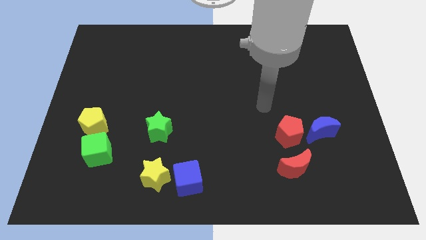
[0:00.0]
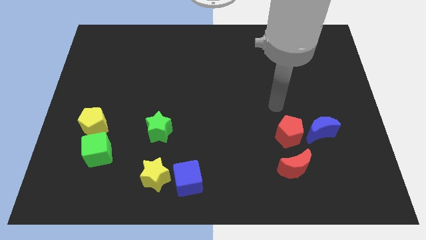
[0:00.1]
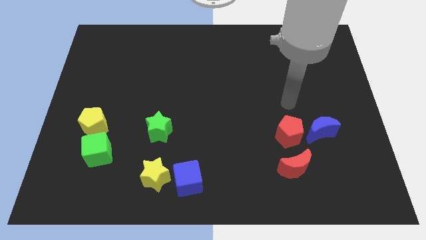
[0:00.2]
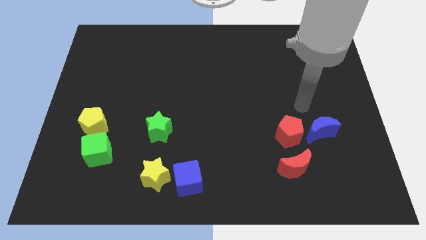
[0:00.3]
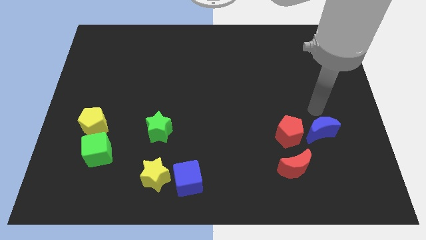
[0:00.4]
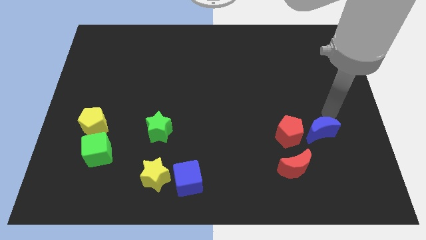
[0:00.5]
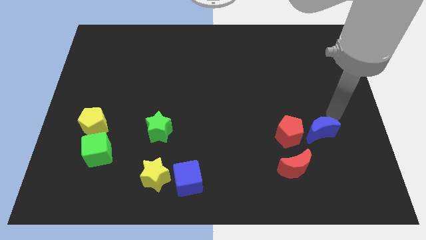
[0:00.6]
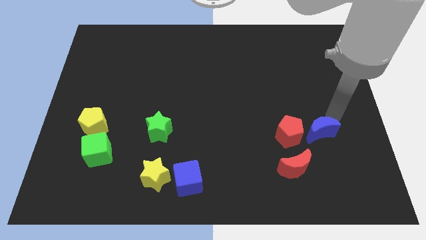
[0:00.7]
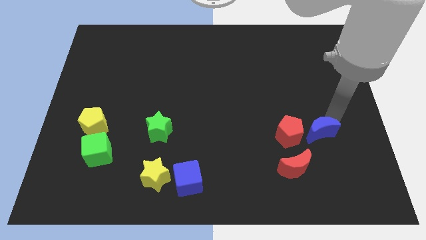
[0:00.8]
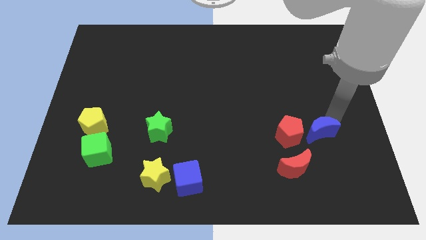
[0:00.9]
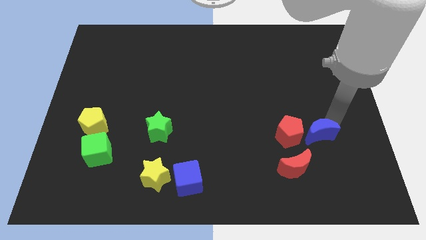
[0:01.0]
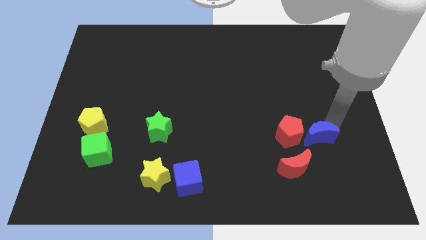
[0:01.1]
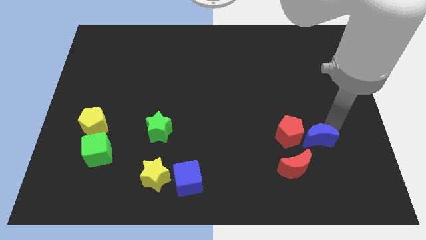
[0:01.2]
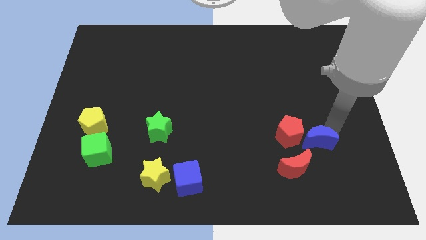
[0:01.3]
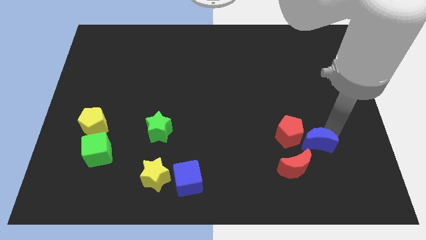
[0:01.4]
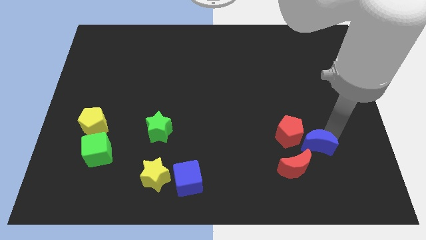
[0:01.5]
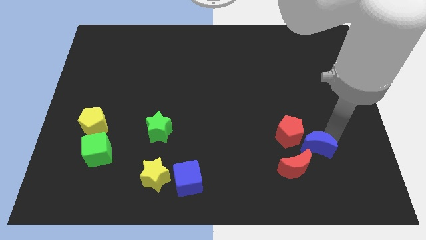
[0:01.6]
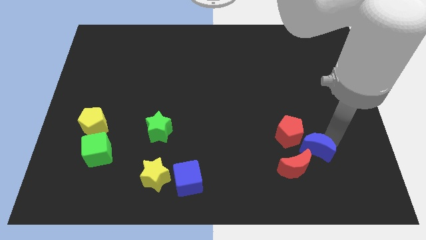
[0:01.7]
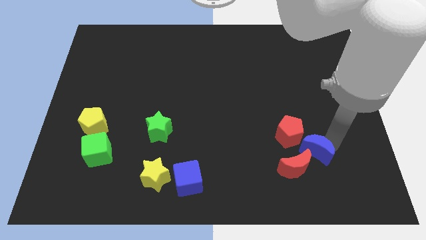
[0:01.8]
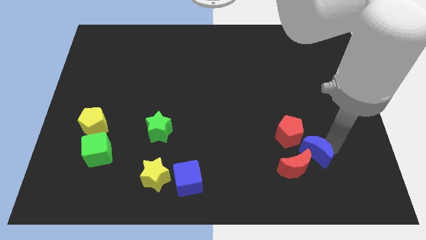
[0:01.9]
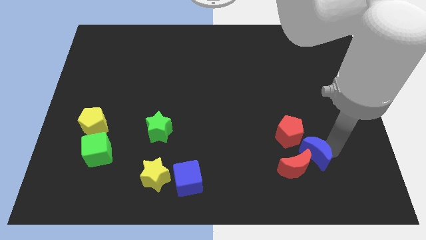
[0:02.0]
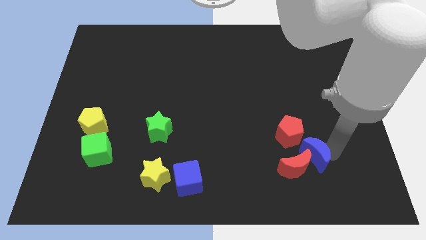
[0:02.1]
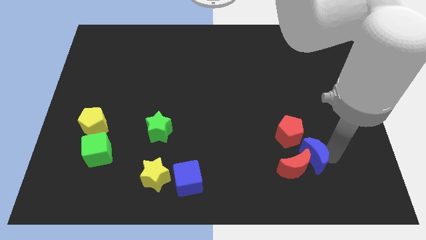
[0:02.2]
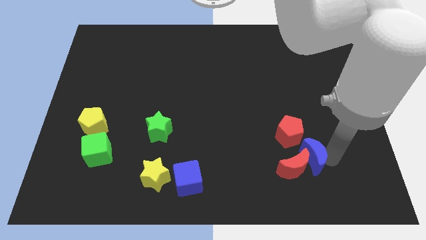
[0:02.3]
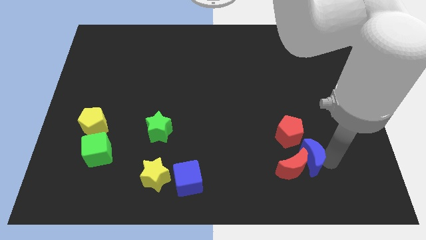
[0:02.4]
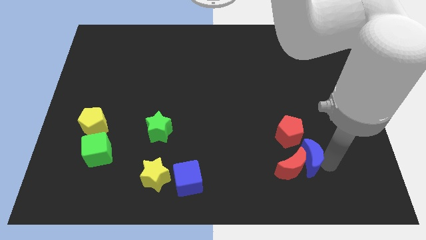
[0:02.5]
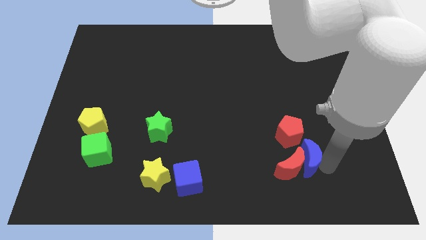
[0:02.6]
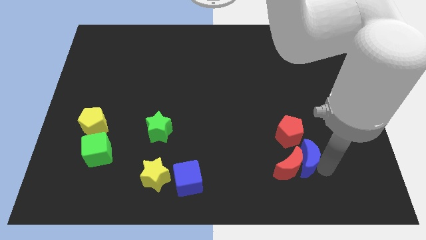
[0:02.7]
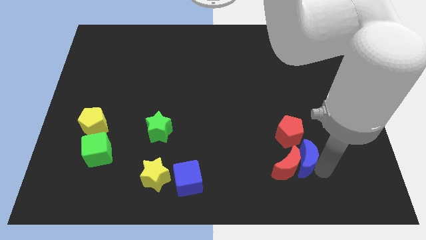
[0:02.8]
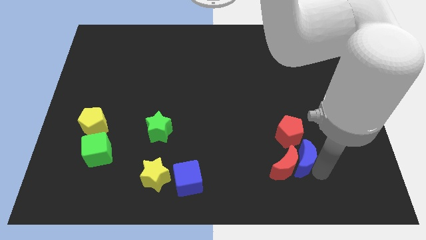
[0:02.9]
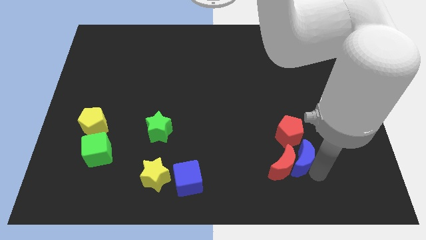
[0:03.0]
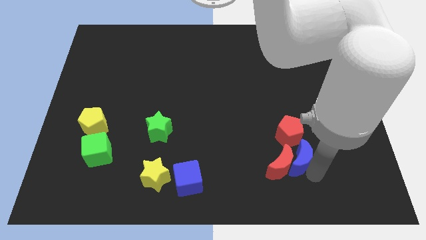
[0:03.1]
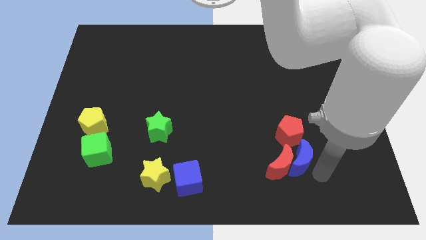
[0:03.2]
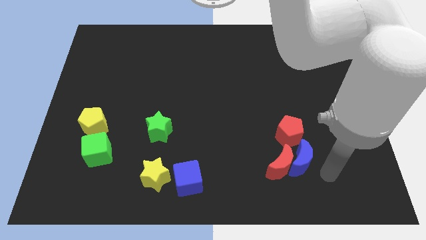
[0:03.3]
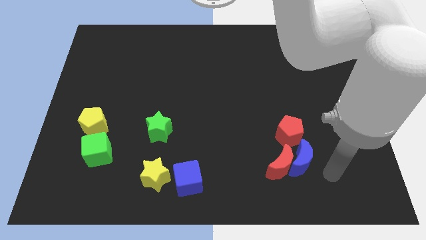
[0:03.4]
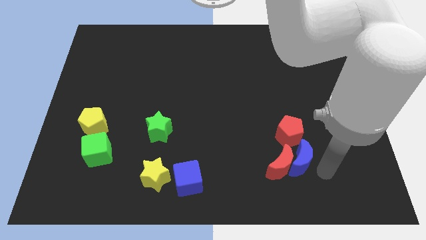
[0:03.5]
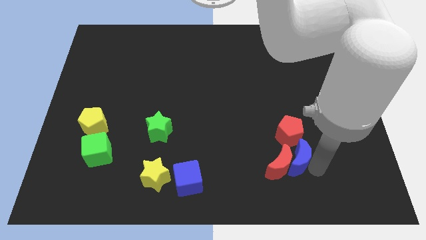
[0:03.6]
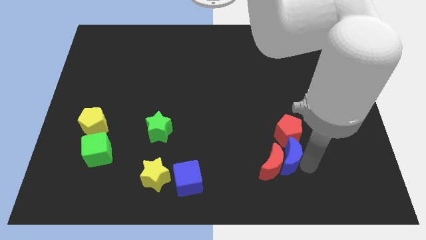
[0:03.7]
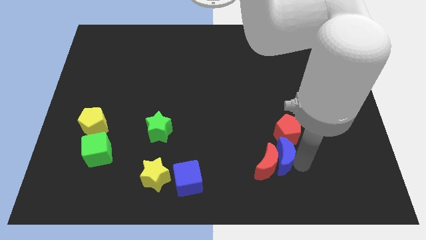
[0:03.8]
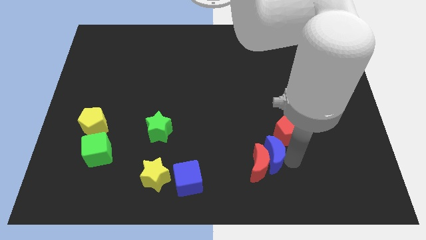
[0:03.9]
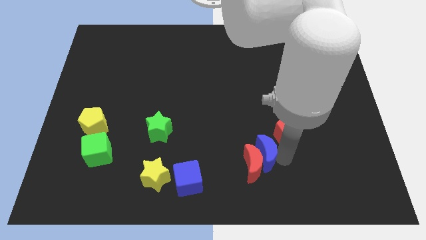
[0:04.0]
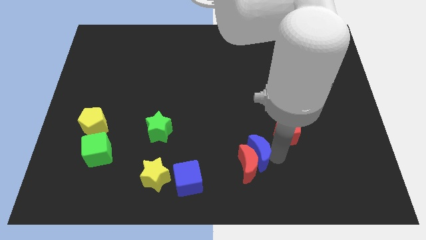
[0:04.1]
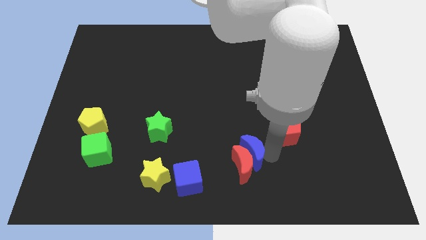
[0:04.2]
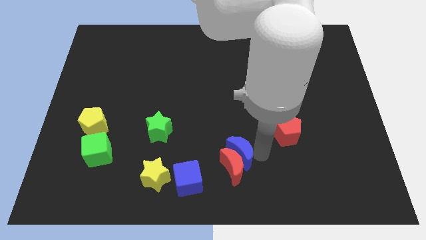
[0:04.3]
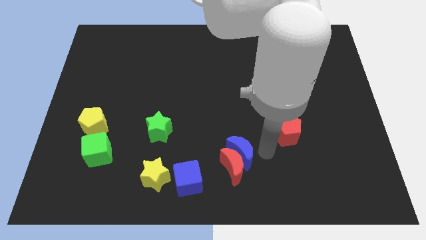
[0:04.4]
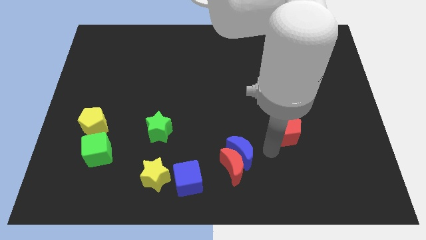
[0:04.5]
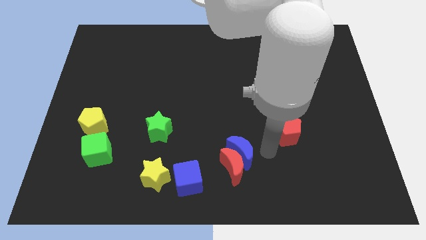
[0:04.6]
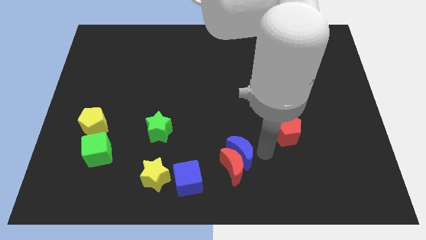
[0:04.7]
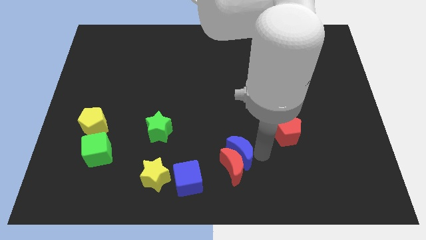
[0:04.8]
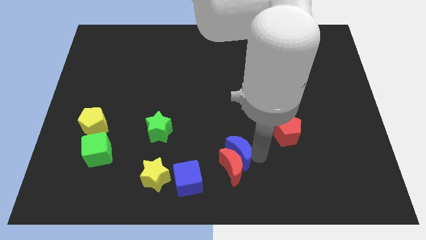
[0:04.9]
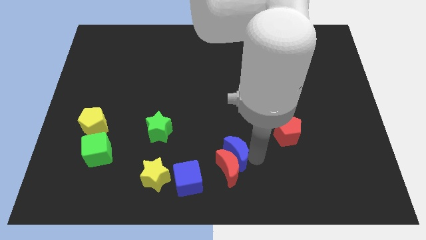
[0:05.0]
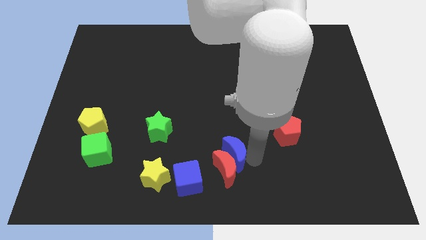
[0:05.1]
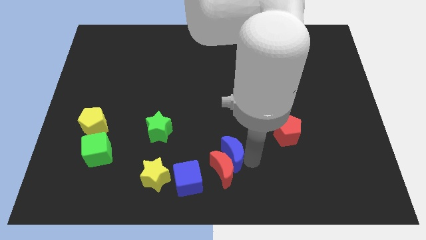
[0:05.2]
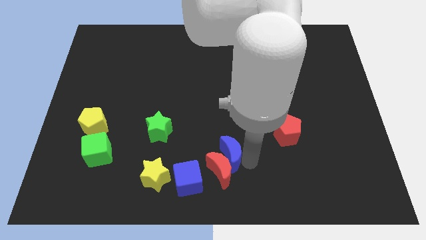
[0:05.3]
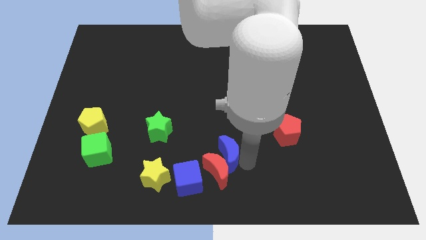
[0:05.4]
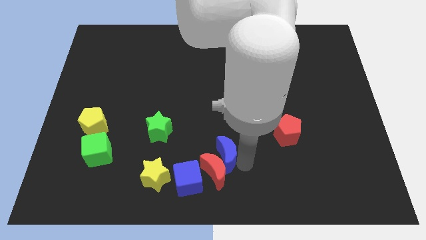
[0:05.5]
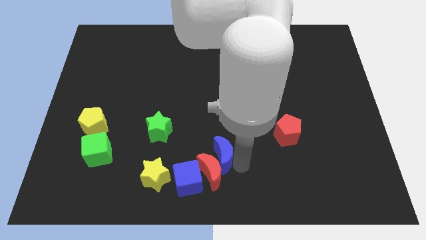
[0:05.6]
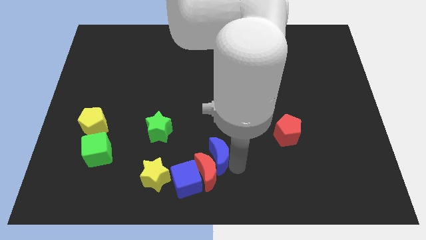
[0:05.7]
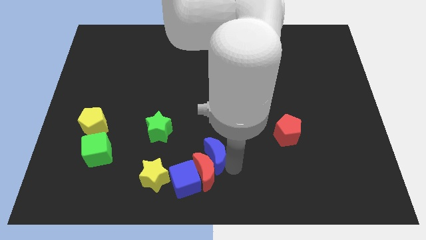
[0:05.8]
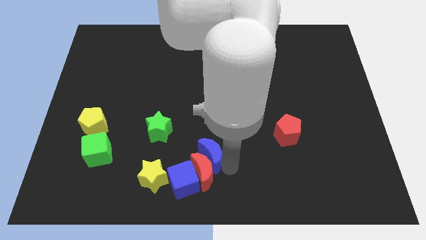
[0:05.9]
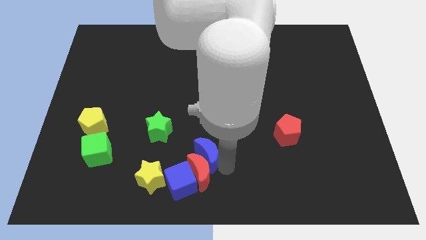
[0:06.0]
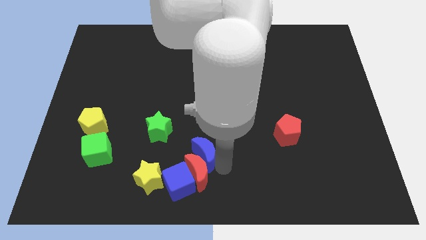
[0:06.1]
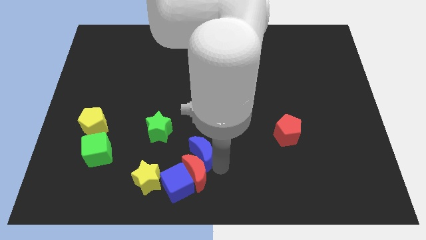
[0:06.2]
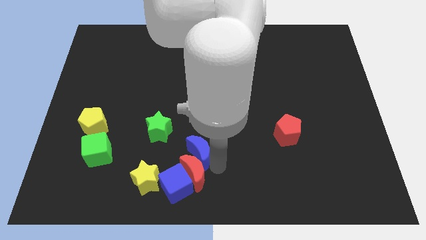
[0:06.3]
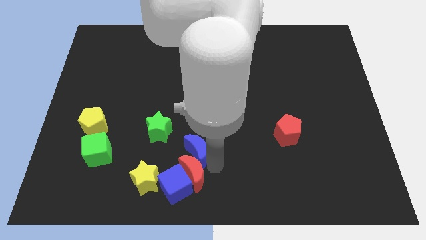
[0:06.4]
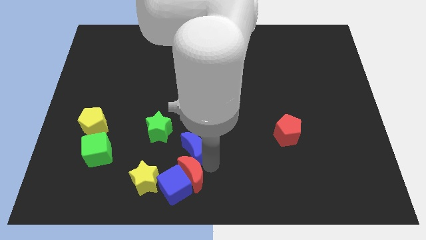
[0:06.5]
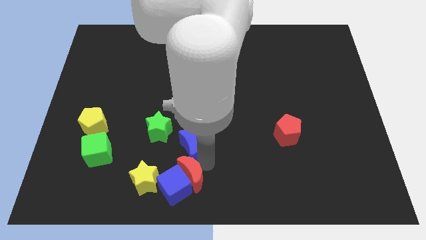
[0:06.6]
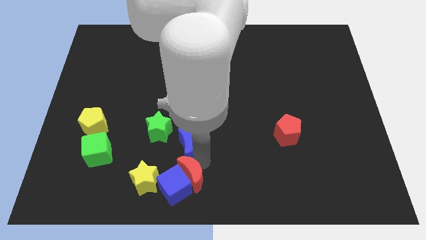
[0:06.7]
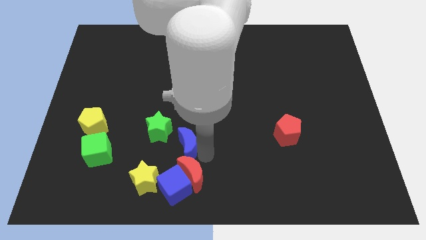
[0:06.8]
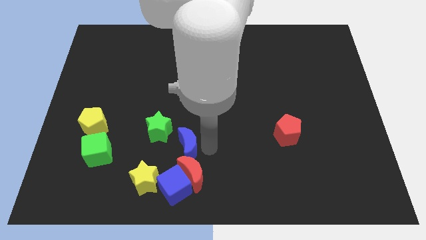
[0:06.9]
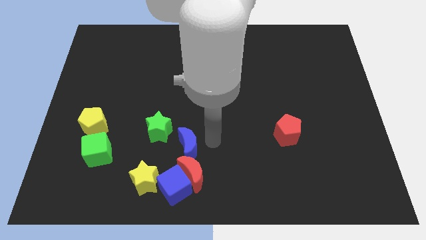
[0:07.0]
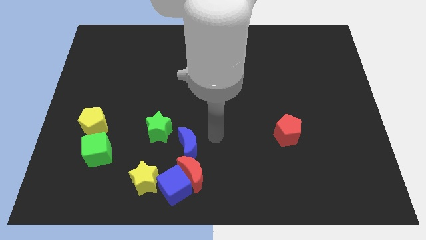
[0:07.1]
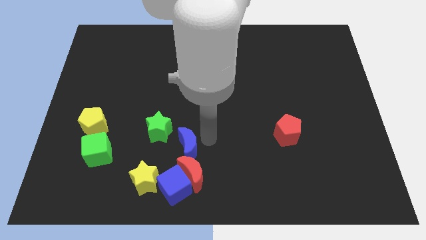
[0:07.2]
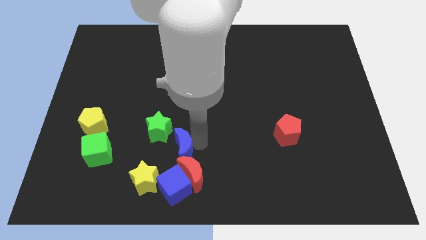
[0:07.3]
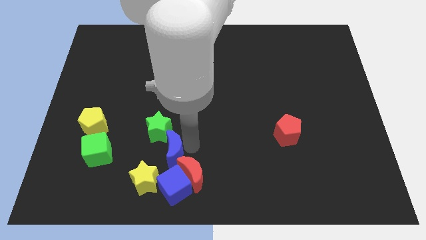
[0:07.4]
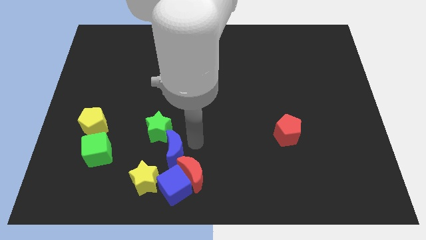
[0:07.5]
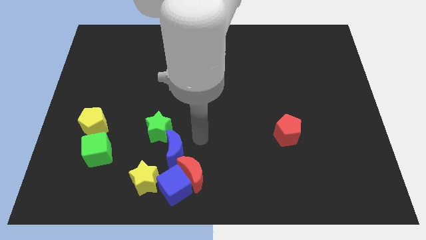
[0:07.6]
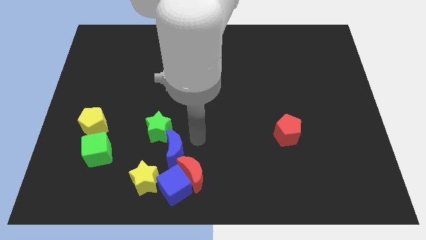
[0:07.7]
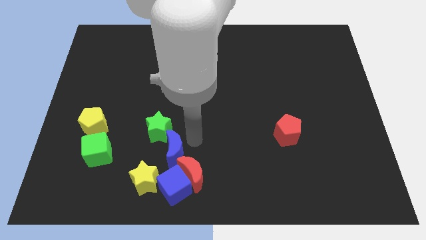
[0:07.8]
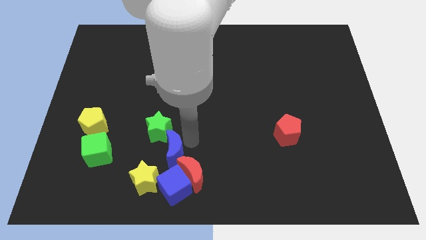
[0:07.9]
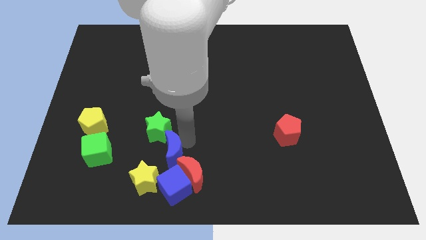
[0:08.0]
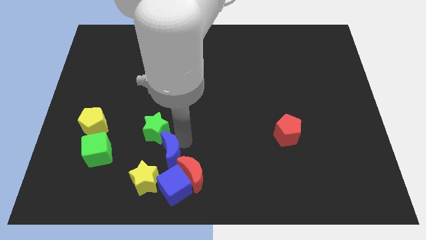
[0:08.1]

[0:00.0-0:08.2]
put the blue moon to the top left side of the blue cube

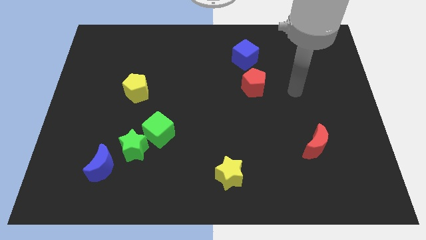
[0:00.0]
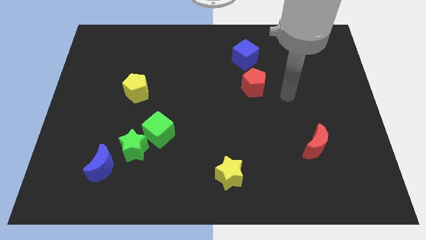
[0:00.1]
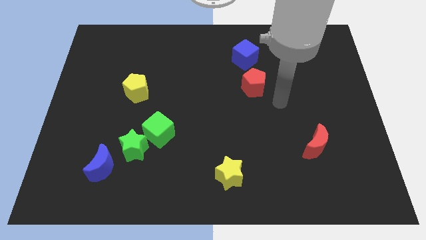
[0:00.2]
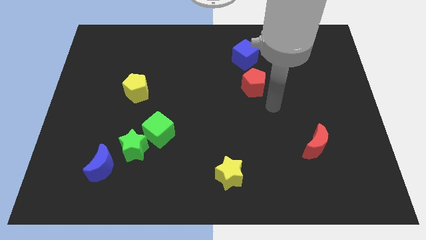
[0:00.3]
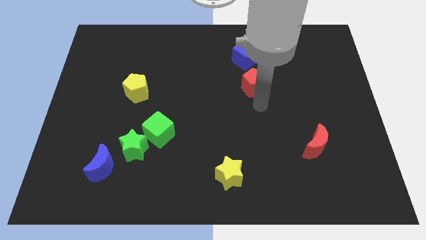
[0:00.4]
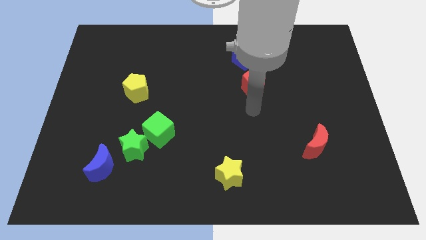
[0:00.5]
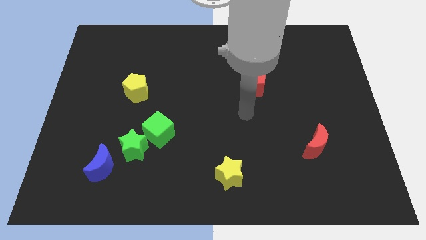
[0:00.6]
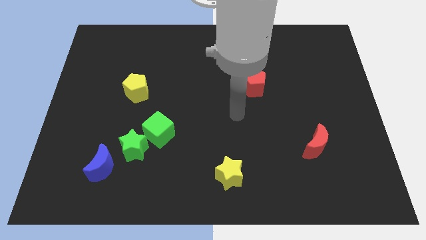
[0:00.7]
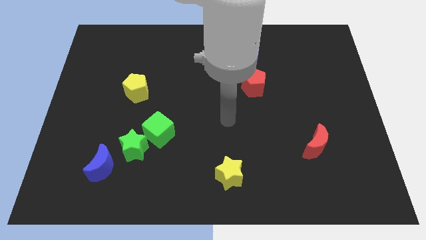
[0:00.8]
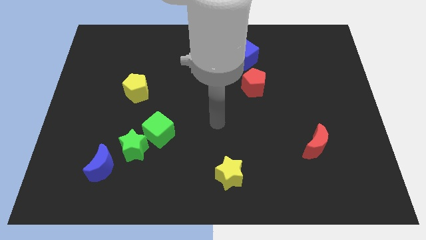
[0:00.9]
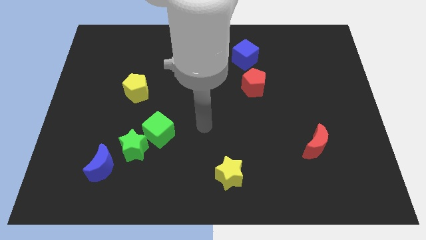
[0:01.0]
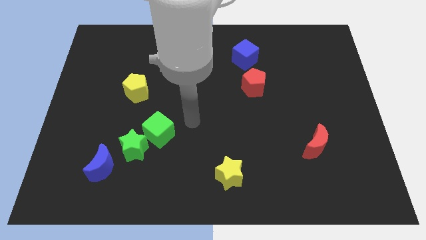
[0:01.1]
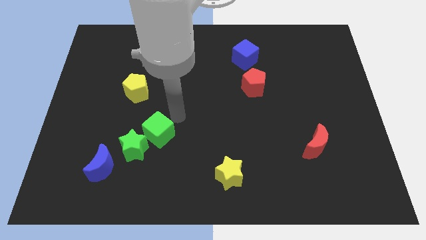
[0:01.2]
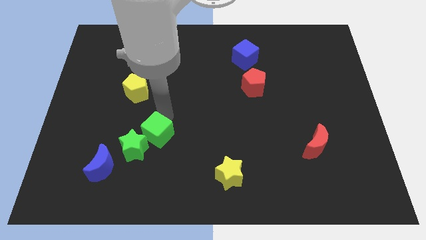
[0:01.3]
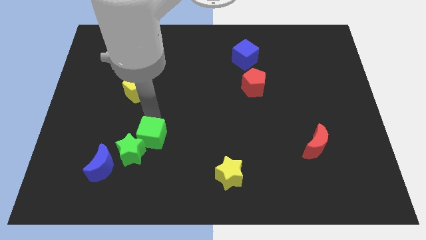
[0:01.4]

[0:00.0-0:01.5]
move the blue moon to the bottom left side of the green cube
